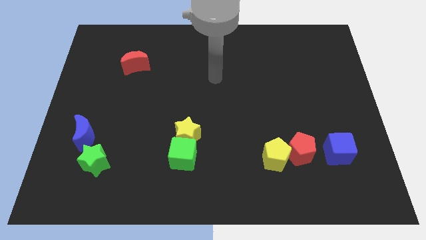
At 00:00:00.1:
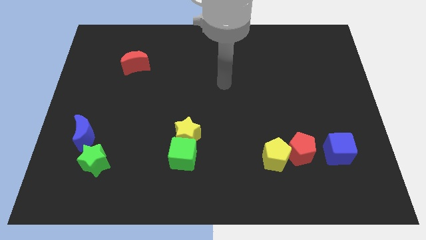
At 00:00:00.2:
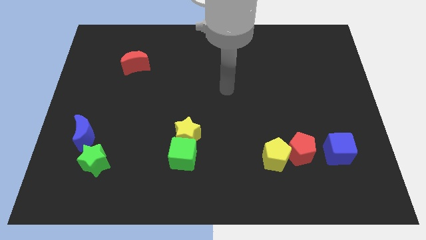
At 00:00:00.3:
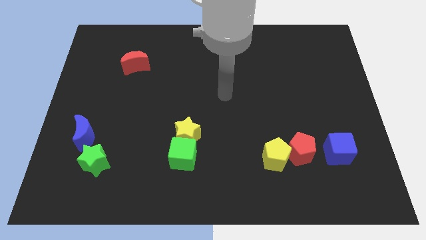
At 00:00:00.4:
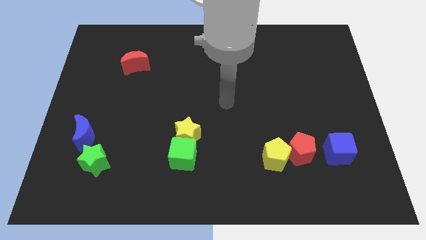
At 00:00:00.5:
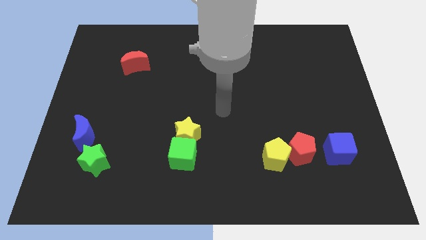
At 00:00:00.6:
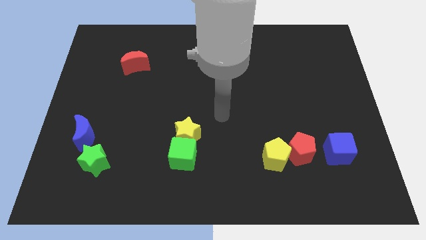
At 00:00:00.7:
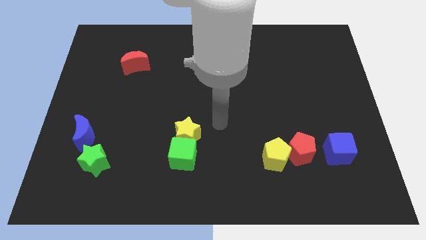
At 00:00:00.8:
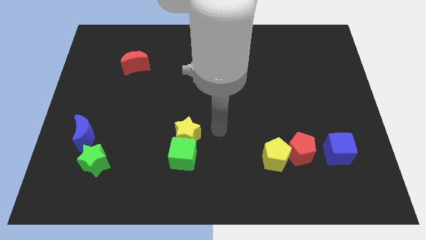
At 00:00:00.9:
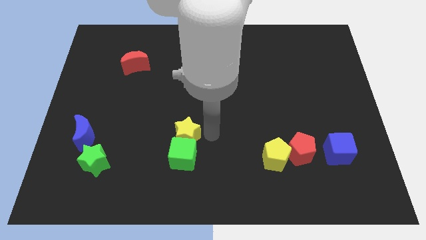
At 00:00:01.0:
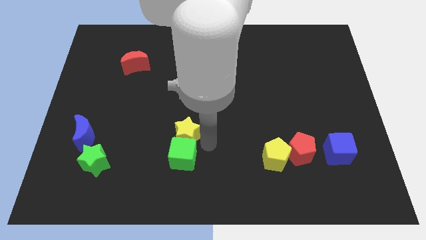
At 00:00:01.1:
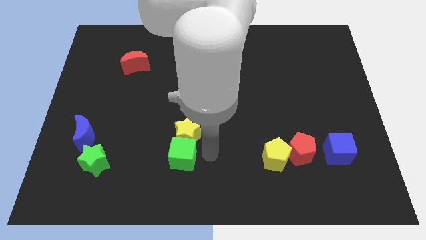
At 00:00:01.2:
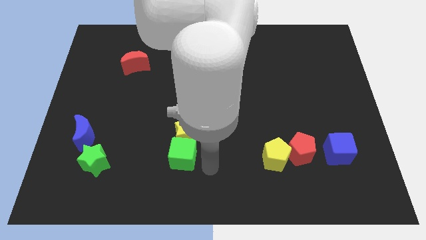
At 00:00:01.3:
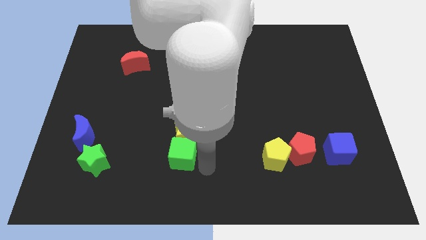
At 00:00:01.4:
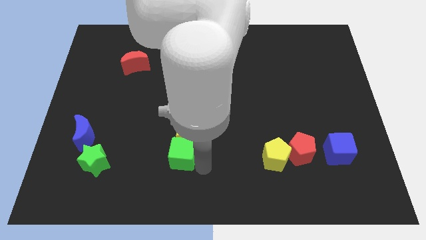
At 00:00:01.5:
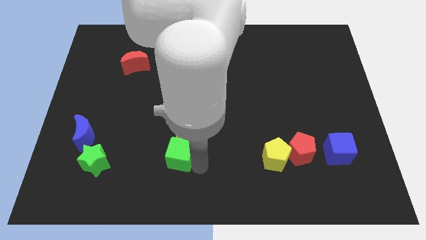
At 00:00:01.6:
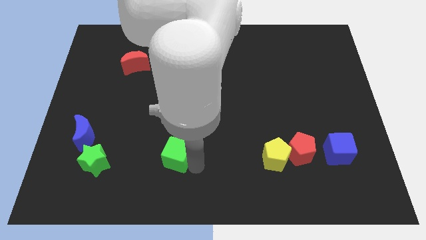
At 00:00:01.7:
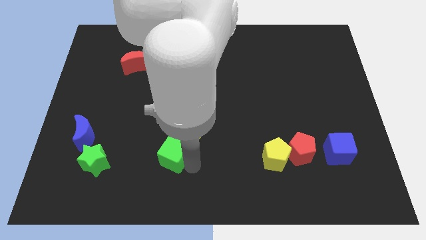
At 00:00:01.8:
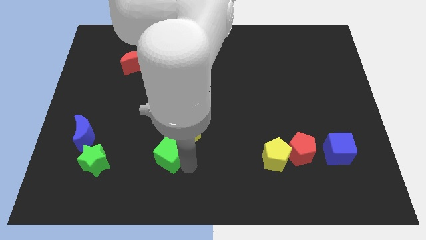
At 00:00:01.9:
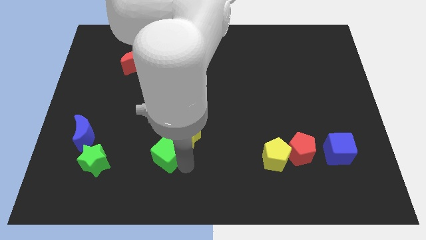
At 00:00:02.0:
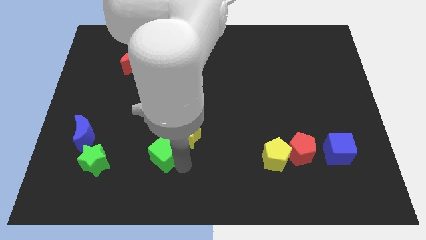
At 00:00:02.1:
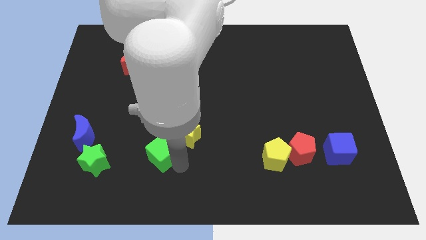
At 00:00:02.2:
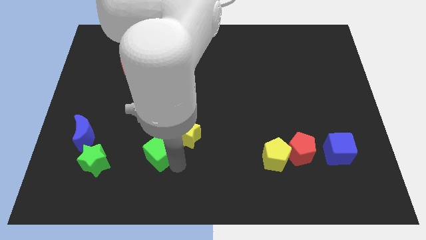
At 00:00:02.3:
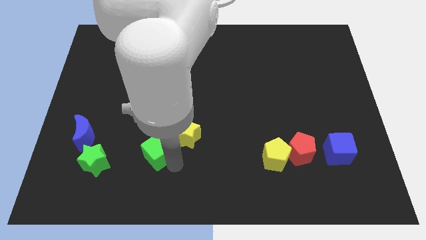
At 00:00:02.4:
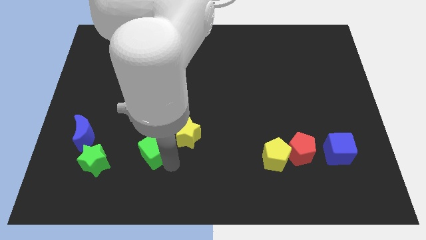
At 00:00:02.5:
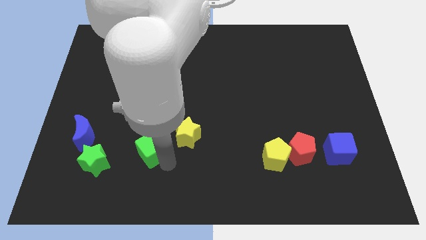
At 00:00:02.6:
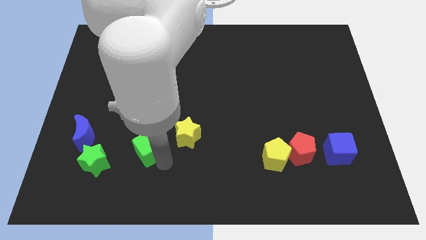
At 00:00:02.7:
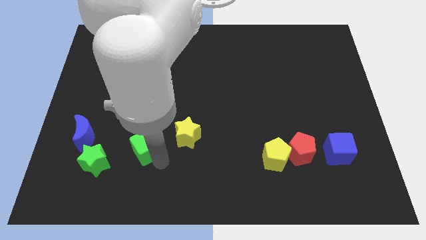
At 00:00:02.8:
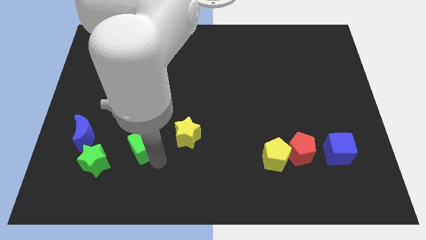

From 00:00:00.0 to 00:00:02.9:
slide the green cube diagonally up and to the left a little bit

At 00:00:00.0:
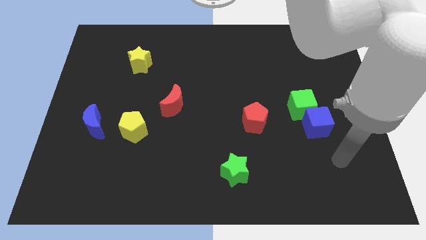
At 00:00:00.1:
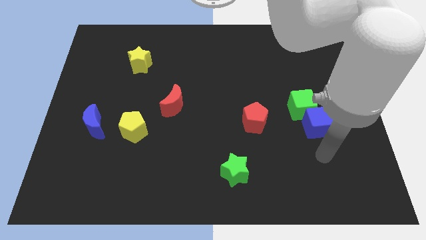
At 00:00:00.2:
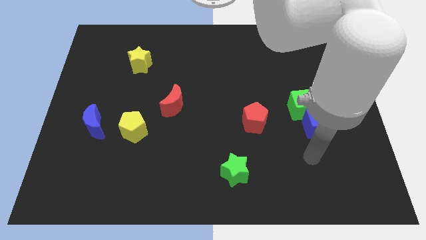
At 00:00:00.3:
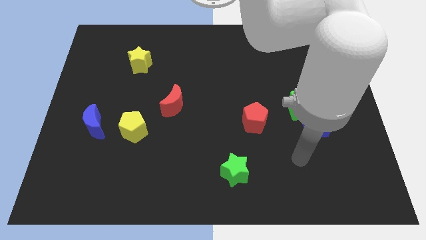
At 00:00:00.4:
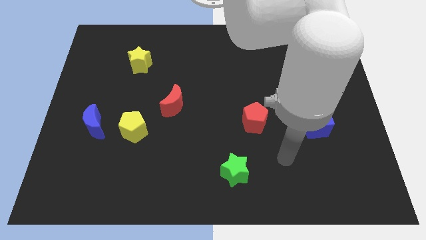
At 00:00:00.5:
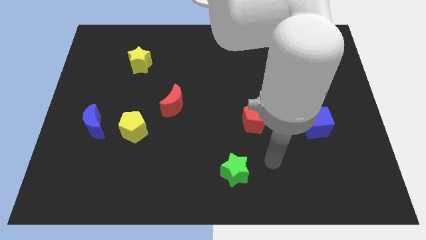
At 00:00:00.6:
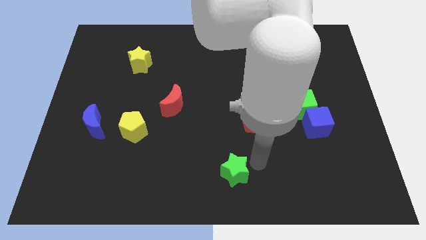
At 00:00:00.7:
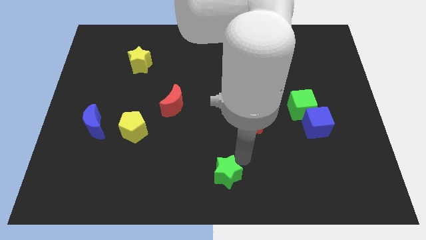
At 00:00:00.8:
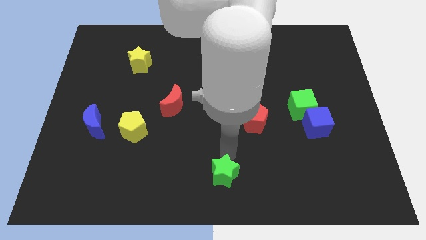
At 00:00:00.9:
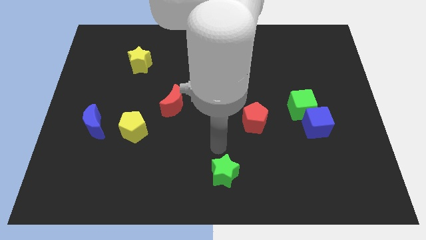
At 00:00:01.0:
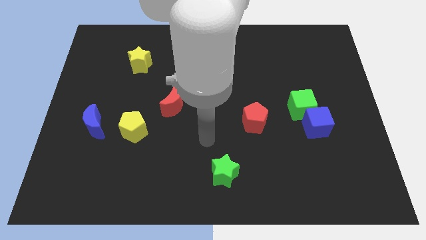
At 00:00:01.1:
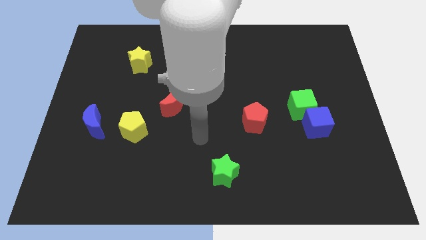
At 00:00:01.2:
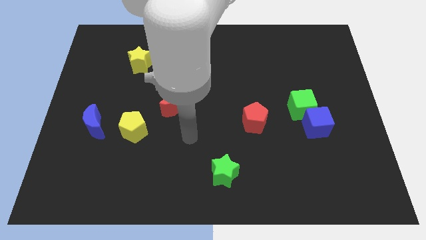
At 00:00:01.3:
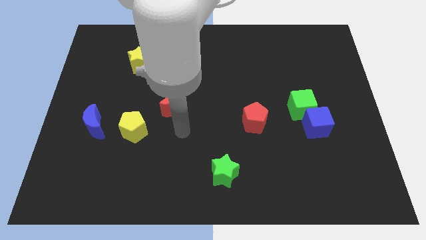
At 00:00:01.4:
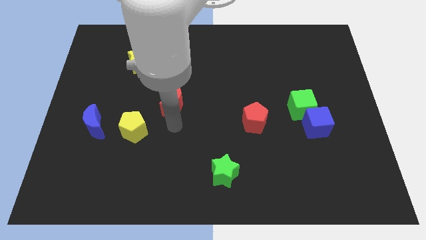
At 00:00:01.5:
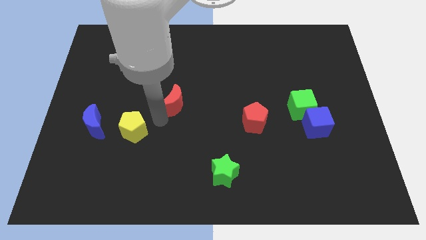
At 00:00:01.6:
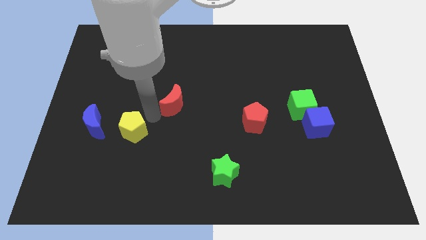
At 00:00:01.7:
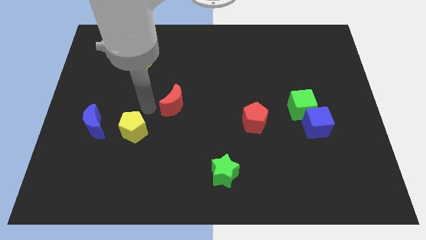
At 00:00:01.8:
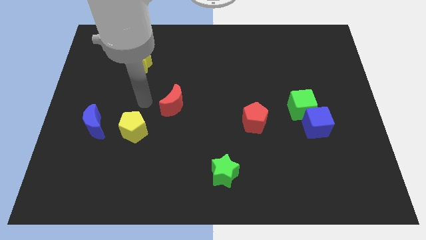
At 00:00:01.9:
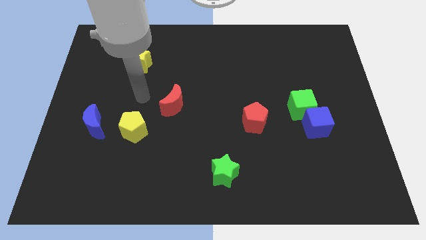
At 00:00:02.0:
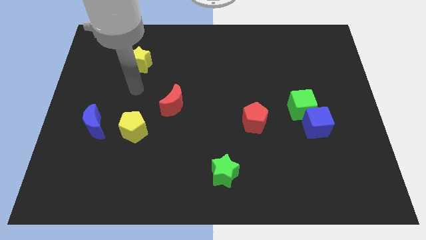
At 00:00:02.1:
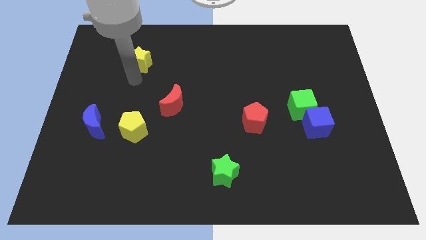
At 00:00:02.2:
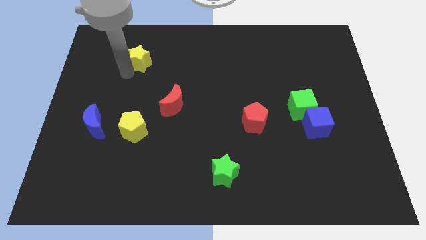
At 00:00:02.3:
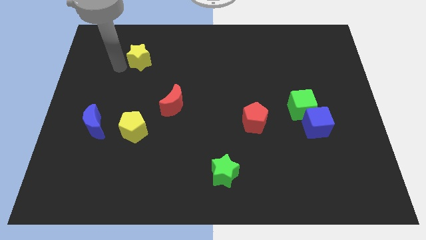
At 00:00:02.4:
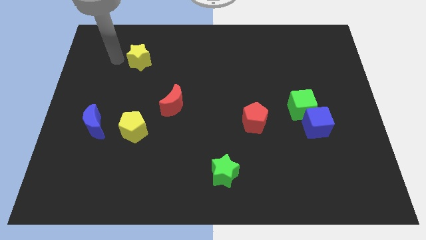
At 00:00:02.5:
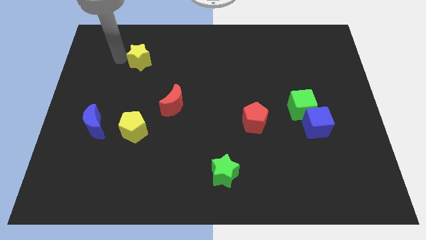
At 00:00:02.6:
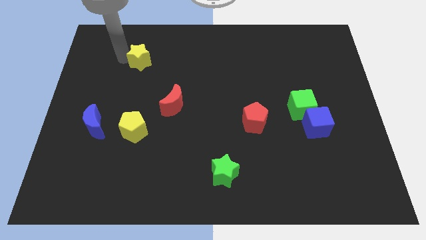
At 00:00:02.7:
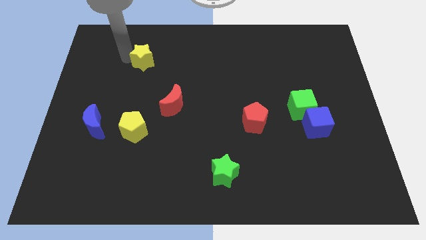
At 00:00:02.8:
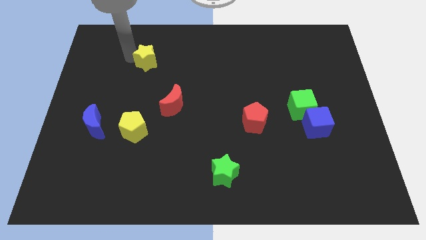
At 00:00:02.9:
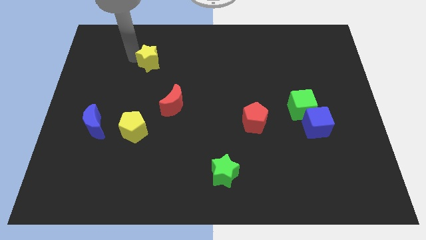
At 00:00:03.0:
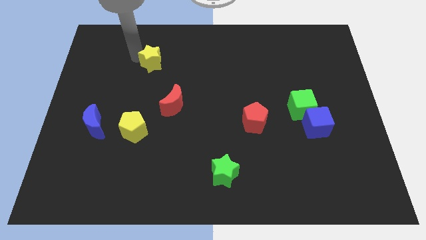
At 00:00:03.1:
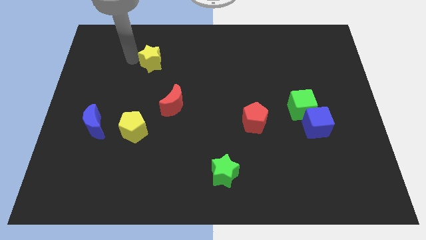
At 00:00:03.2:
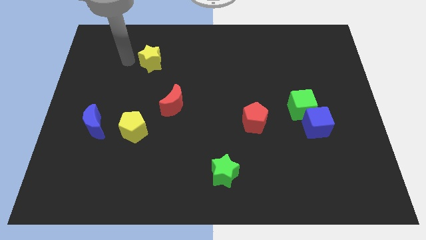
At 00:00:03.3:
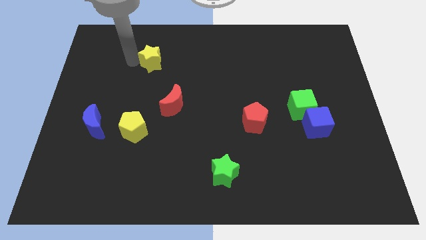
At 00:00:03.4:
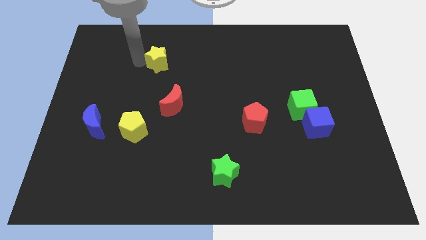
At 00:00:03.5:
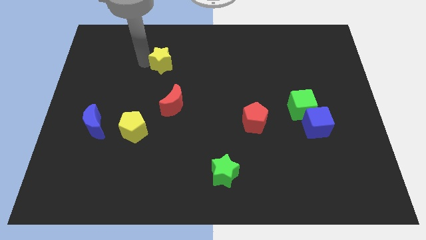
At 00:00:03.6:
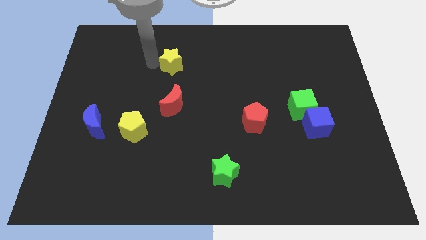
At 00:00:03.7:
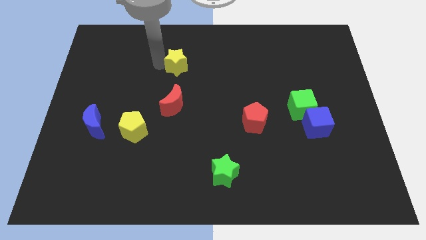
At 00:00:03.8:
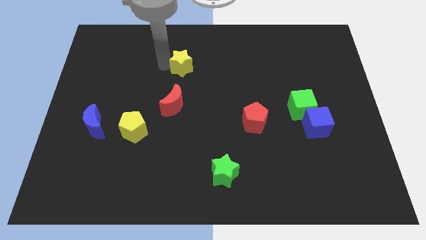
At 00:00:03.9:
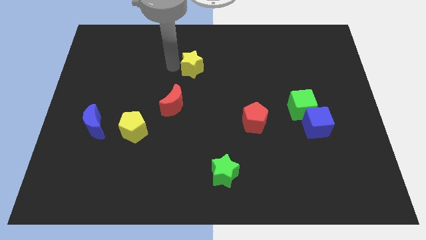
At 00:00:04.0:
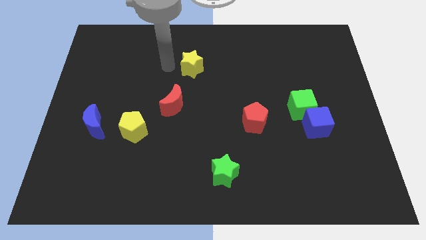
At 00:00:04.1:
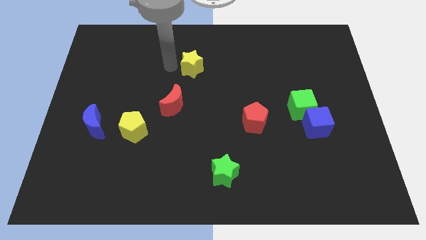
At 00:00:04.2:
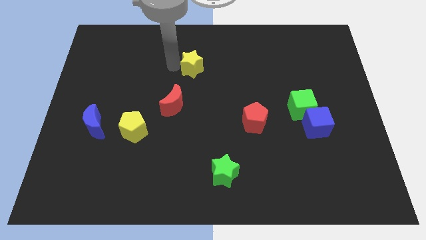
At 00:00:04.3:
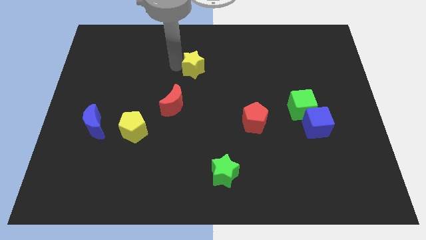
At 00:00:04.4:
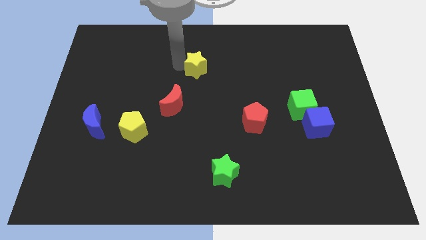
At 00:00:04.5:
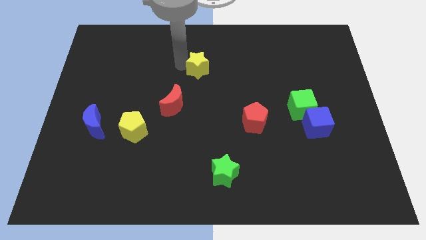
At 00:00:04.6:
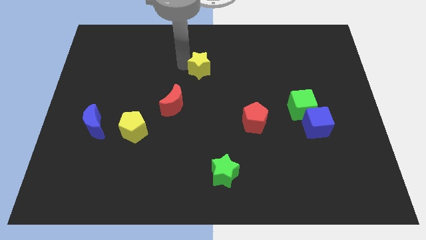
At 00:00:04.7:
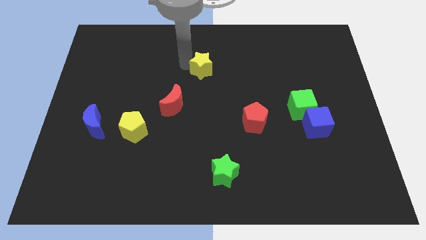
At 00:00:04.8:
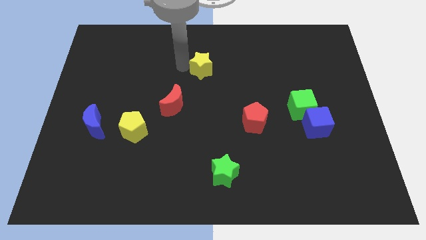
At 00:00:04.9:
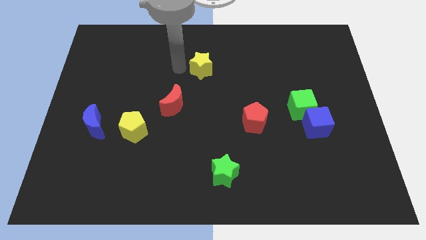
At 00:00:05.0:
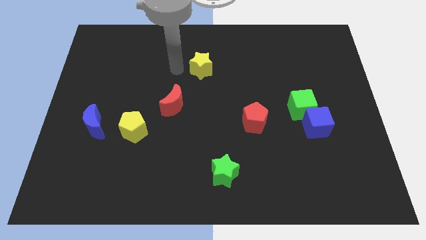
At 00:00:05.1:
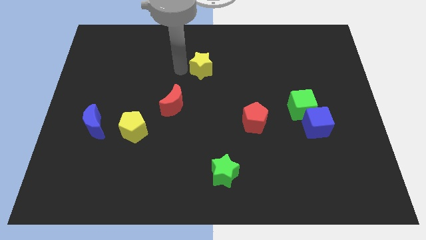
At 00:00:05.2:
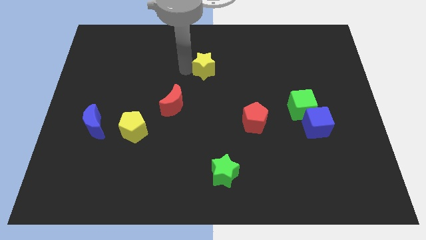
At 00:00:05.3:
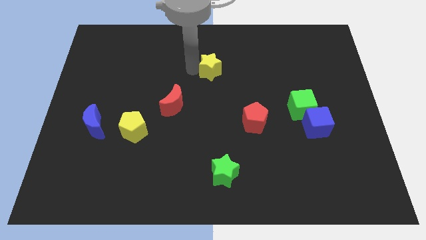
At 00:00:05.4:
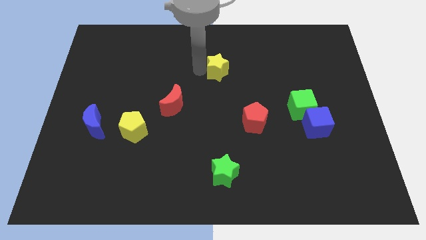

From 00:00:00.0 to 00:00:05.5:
slide the yellow star to the right
